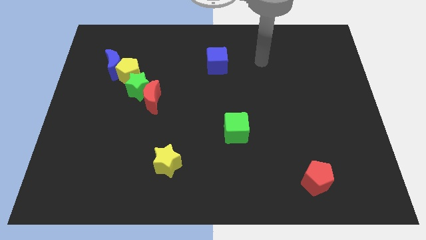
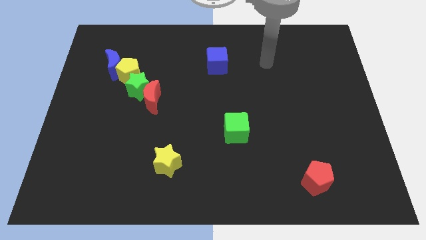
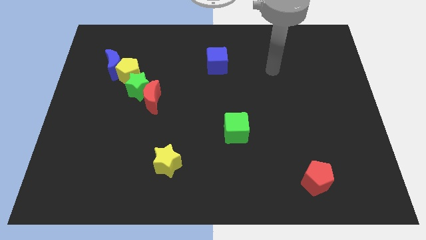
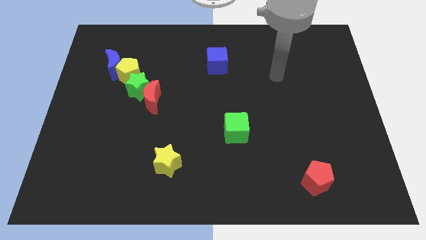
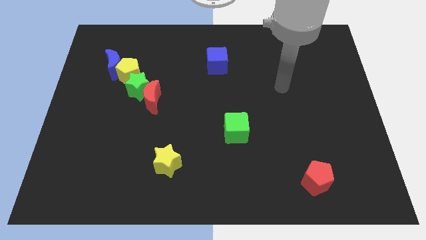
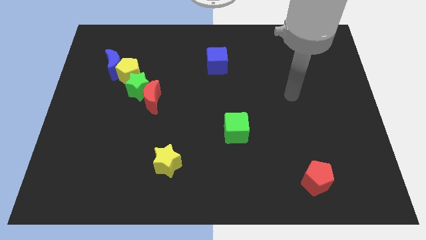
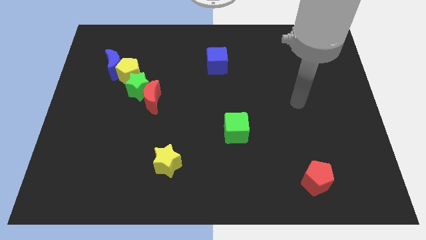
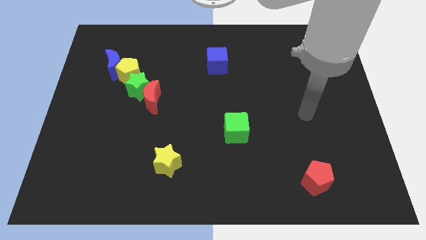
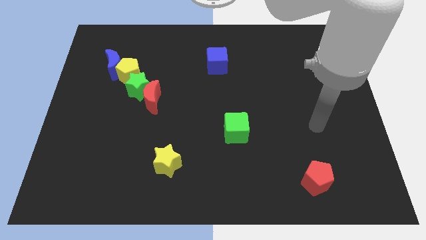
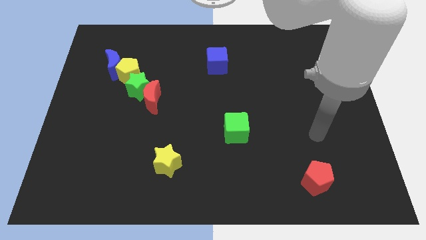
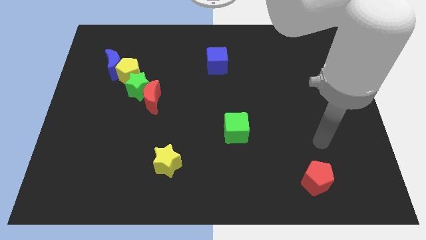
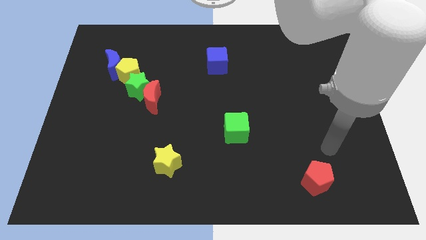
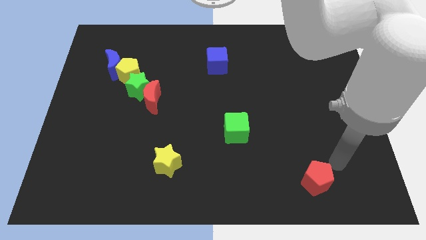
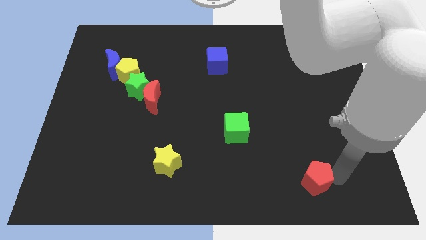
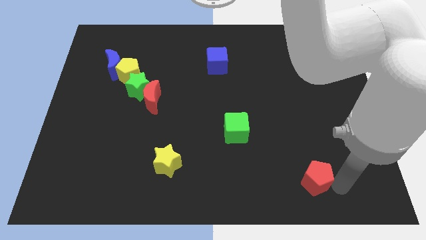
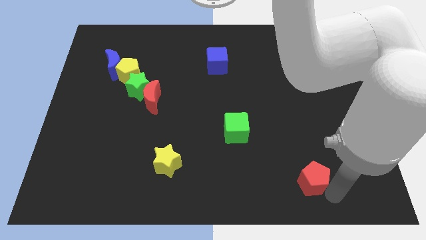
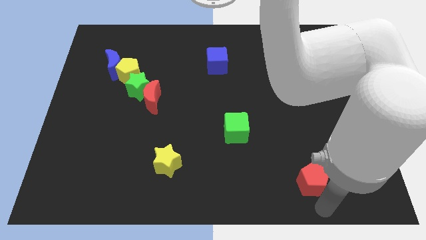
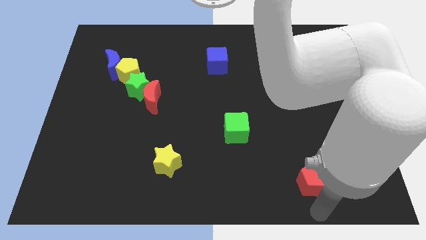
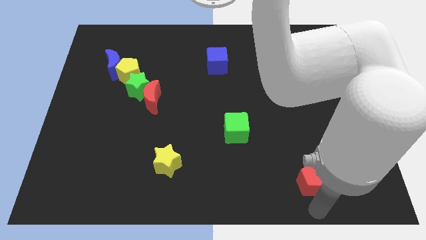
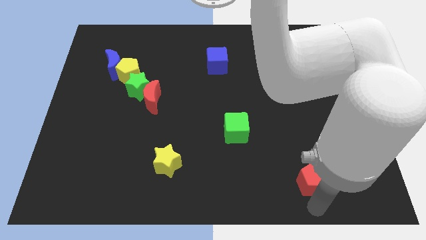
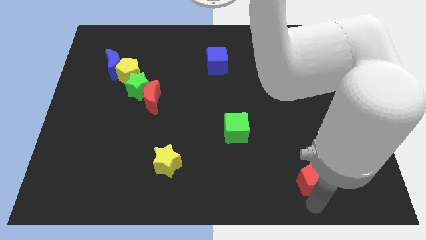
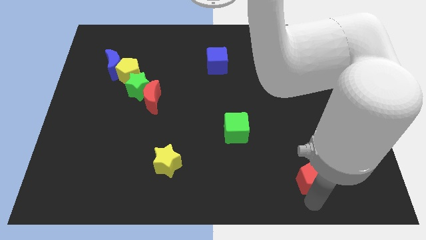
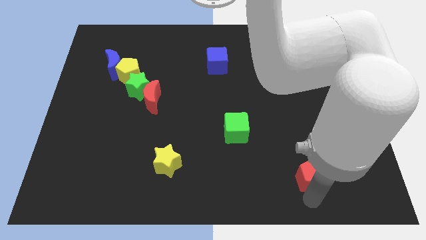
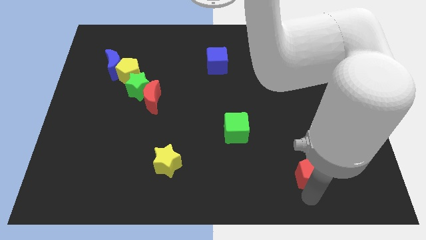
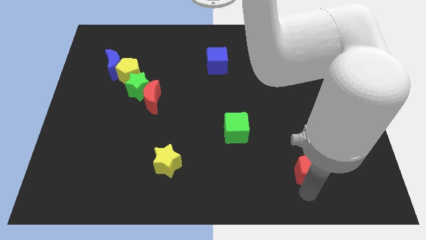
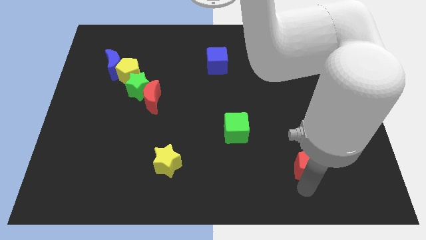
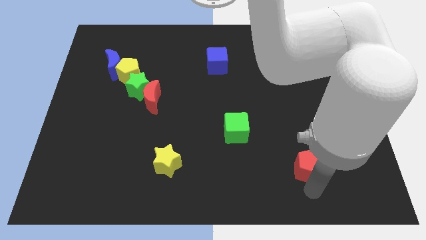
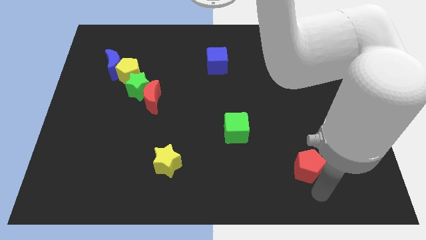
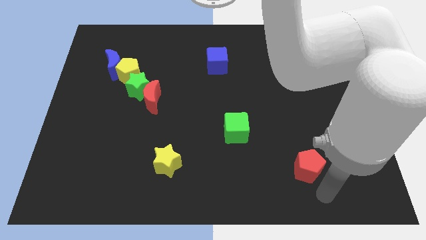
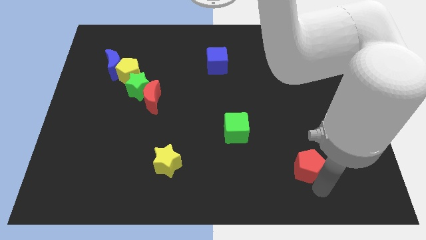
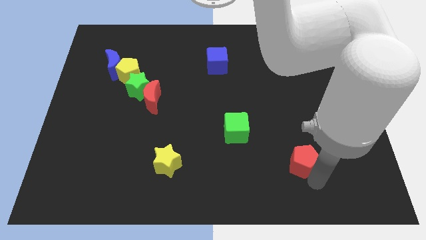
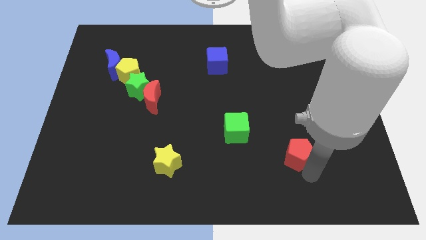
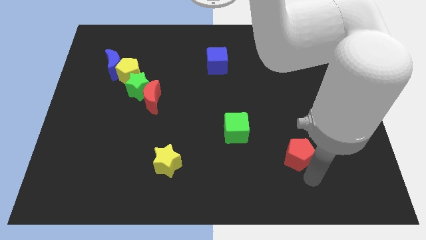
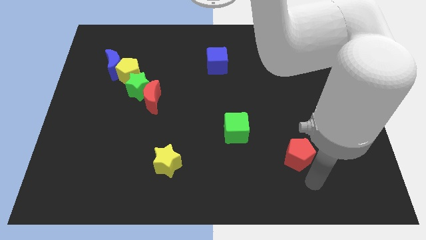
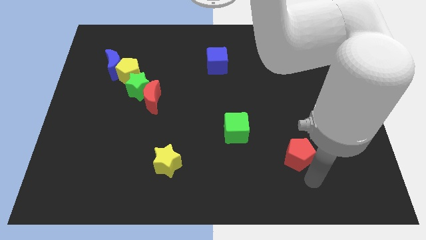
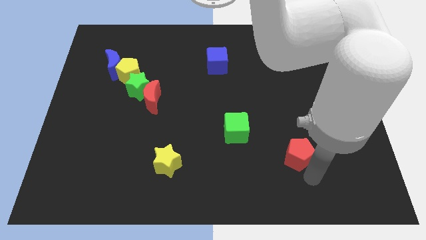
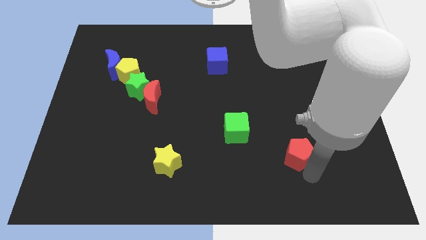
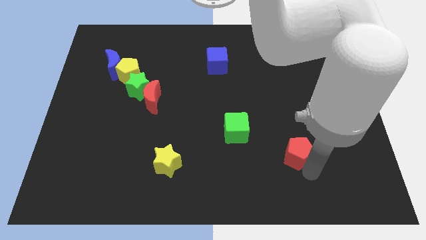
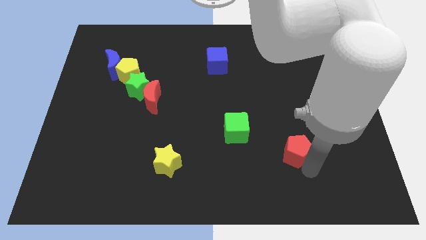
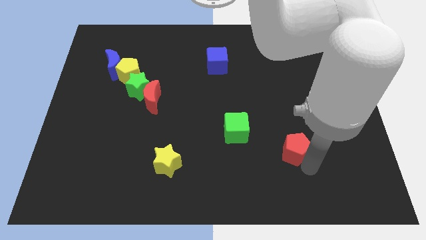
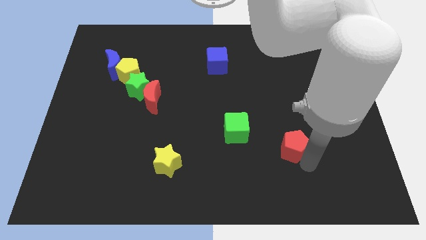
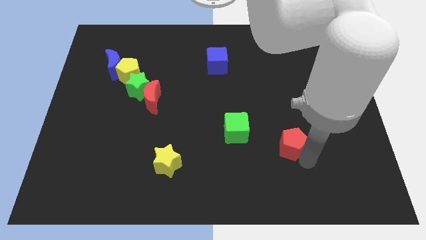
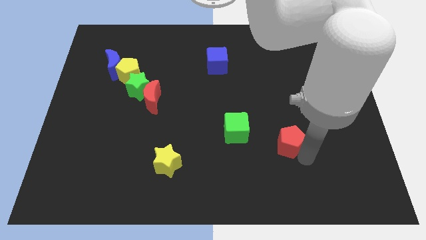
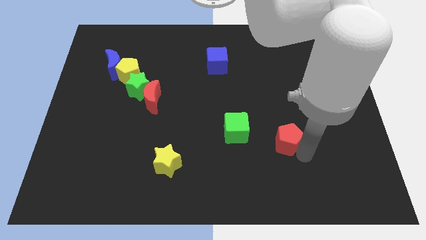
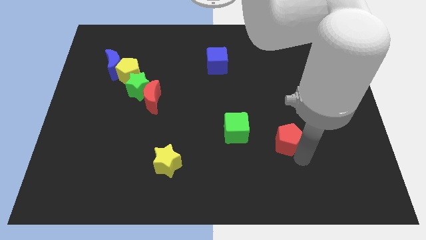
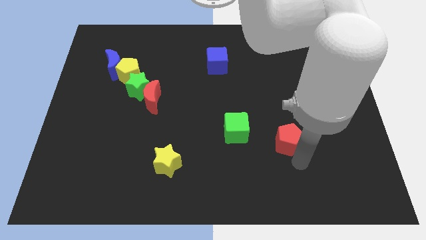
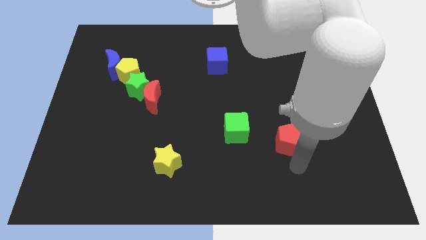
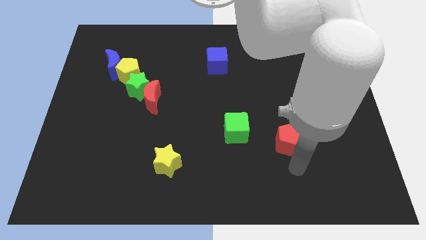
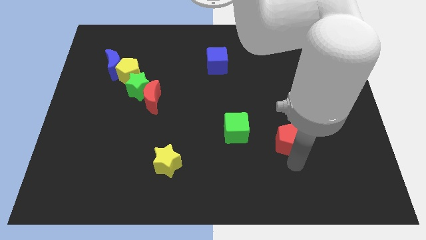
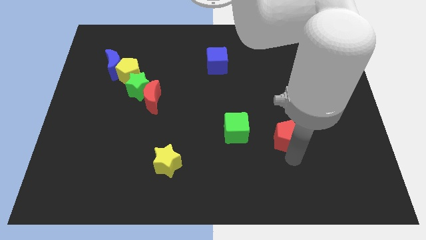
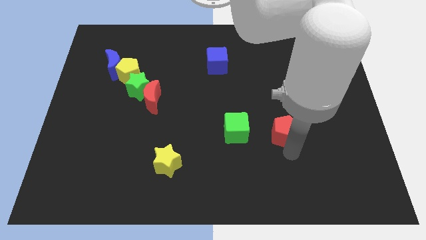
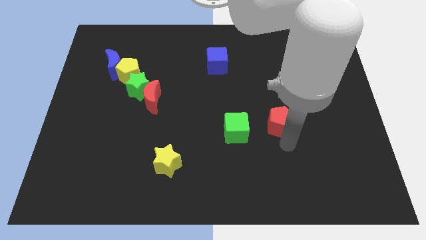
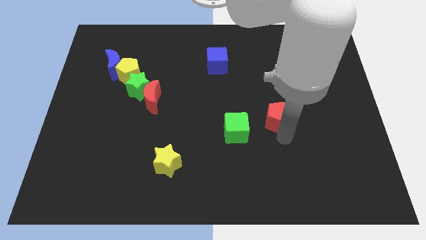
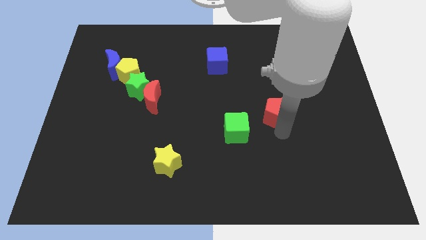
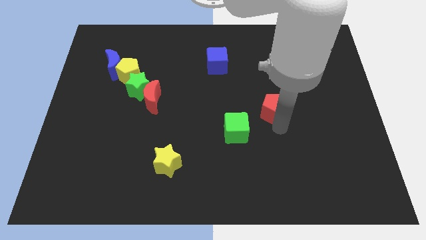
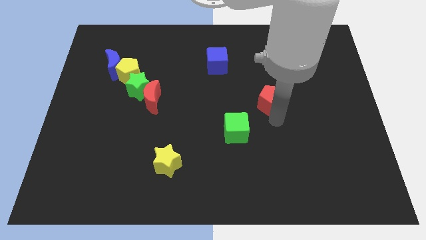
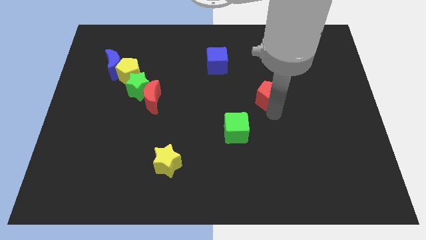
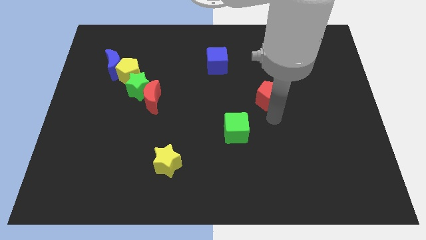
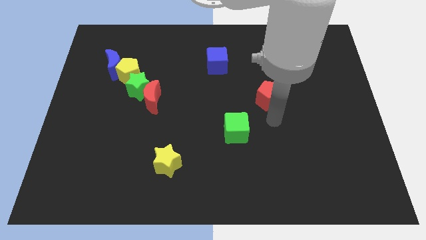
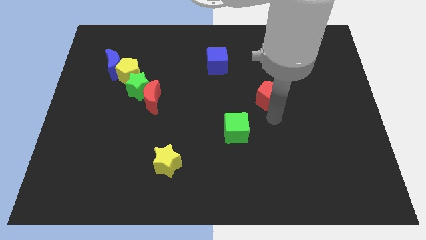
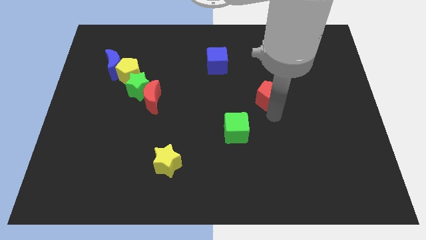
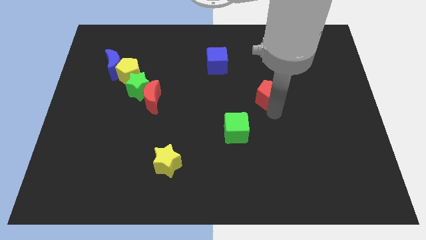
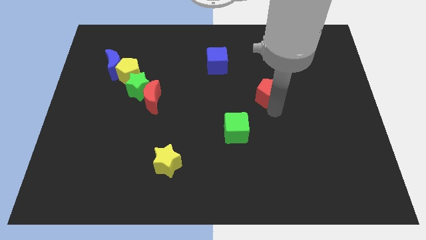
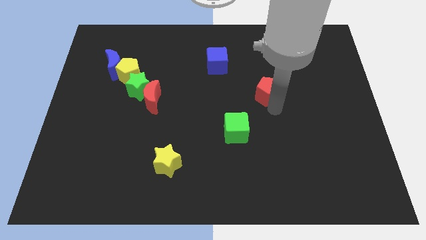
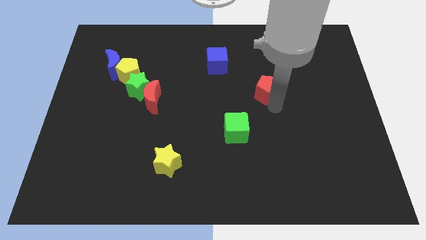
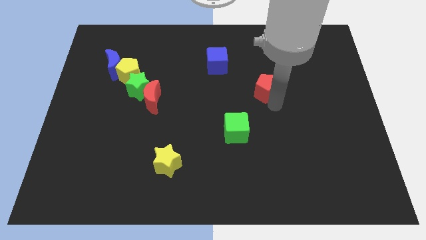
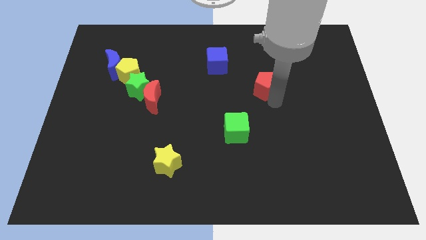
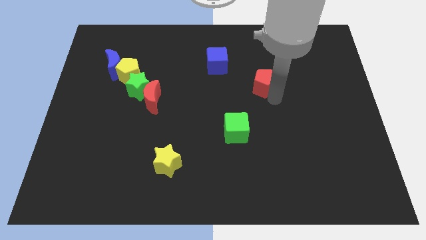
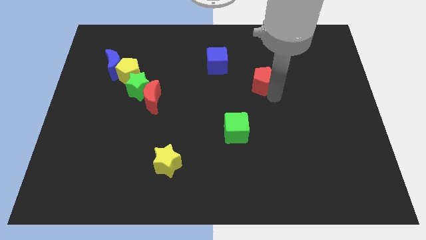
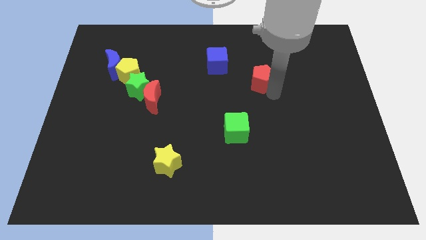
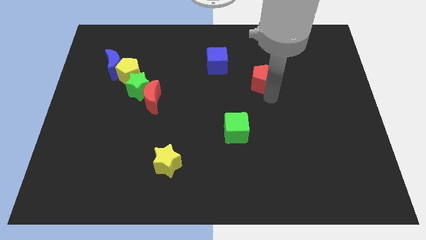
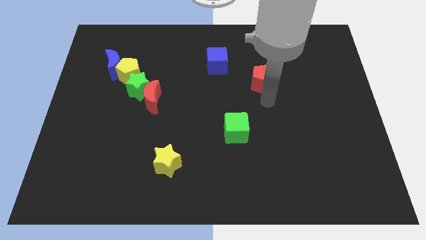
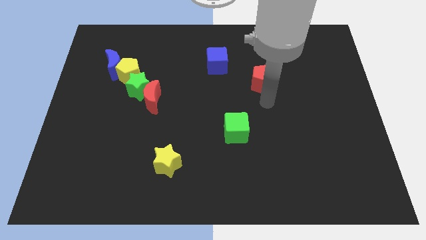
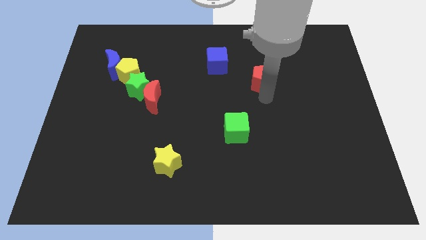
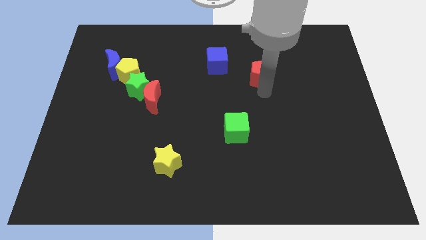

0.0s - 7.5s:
put the red pentagon to the right side of the blue cube
